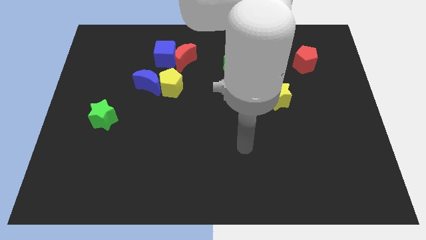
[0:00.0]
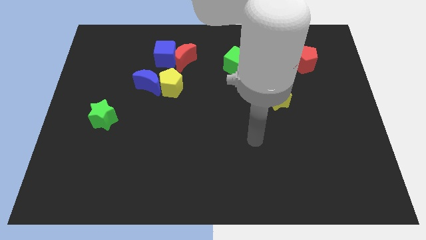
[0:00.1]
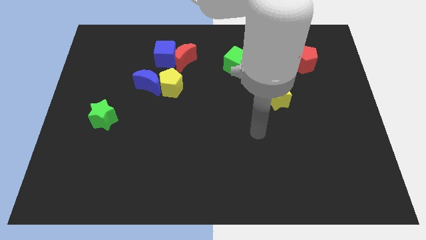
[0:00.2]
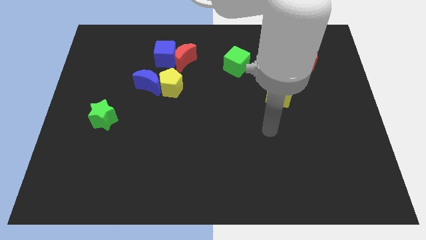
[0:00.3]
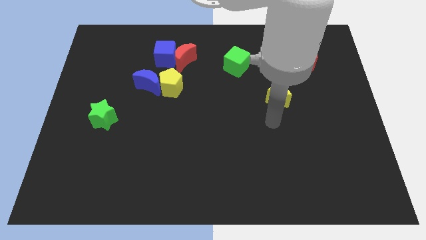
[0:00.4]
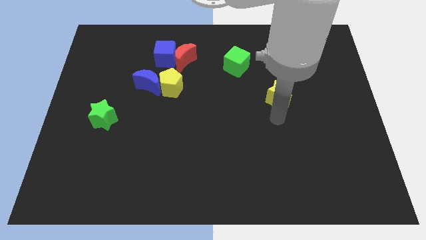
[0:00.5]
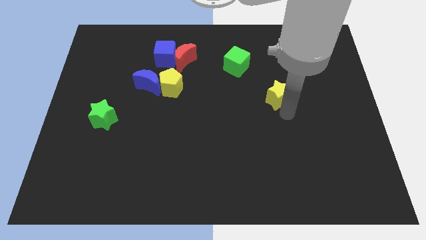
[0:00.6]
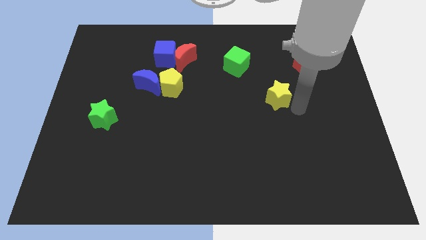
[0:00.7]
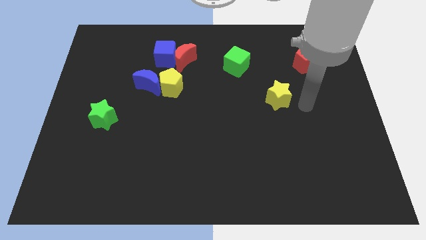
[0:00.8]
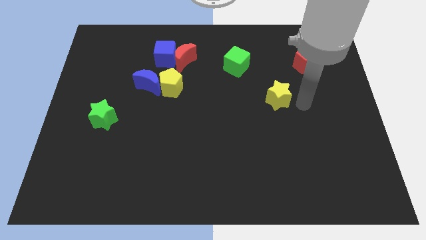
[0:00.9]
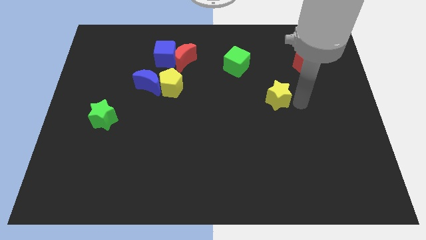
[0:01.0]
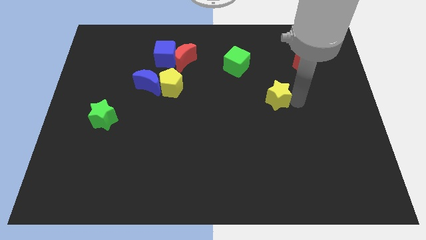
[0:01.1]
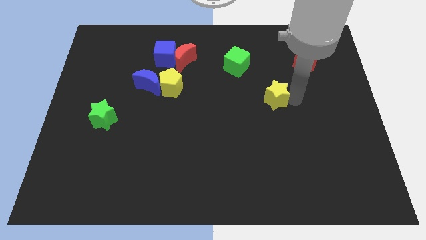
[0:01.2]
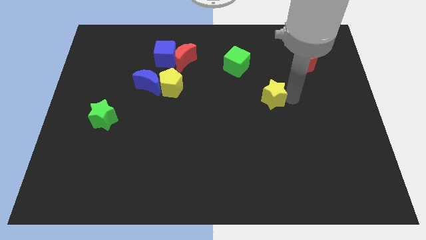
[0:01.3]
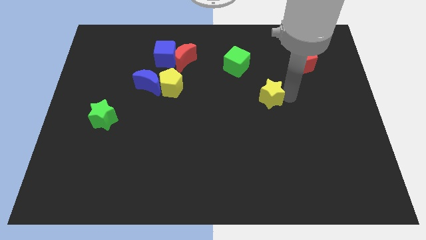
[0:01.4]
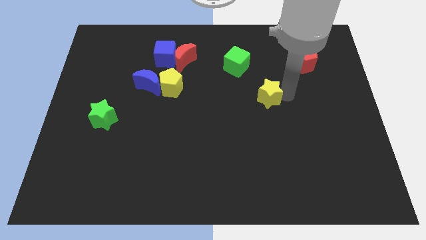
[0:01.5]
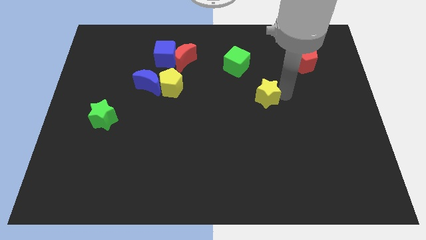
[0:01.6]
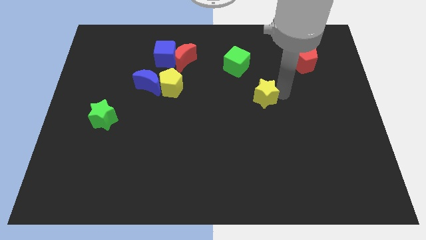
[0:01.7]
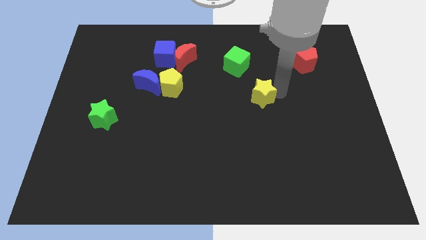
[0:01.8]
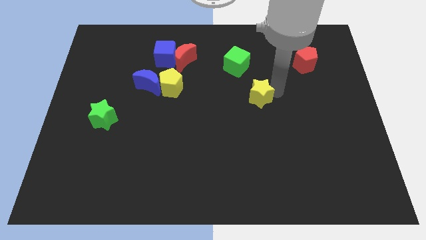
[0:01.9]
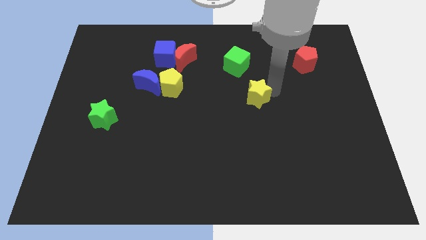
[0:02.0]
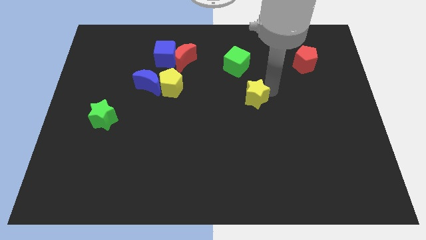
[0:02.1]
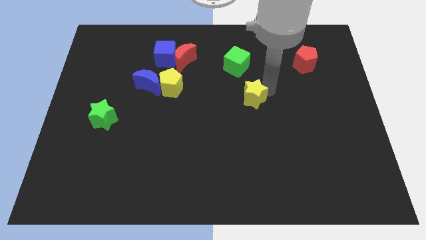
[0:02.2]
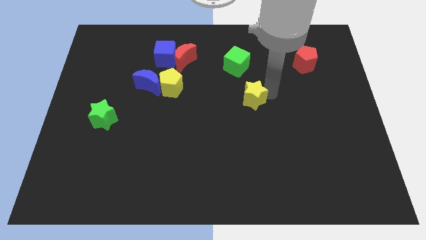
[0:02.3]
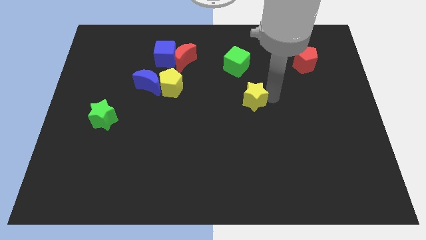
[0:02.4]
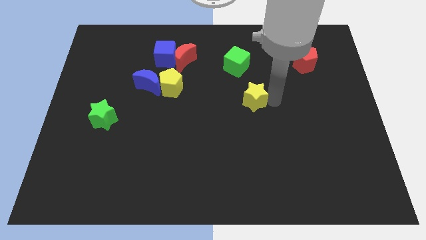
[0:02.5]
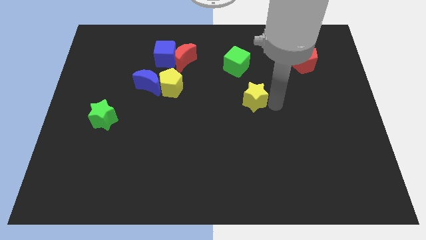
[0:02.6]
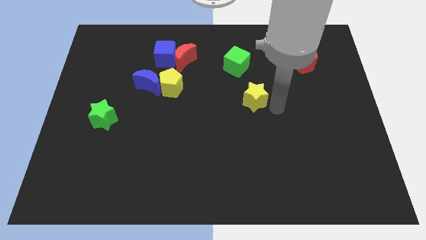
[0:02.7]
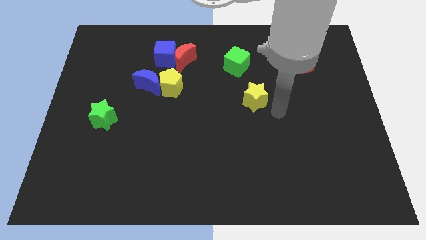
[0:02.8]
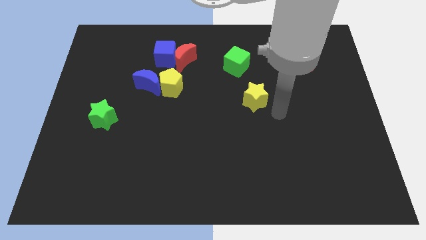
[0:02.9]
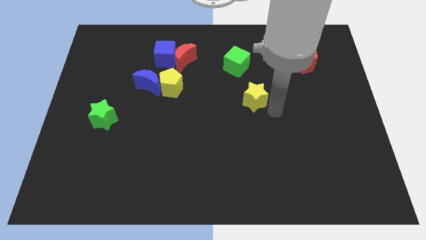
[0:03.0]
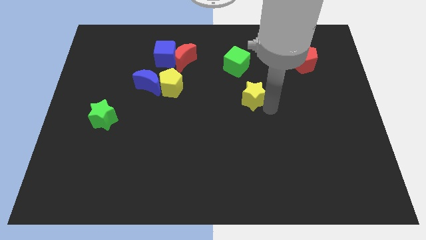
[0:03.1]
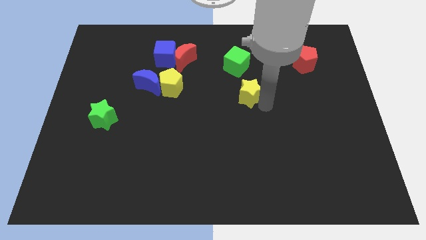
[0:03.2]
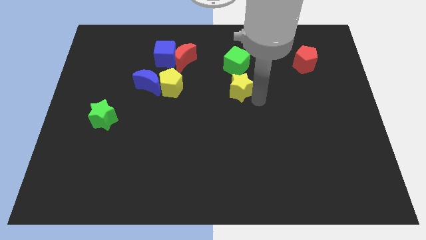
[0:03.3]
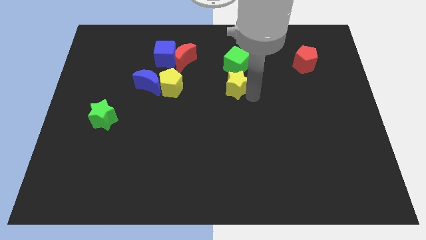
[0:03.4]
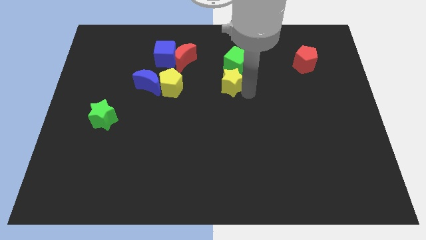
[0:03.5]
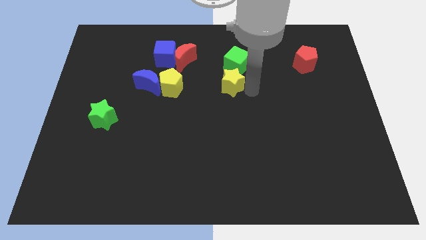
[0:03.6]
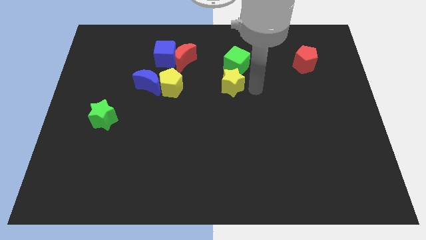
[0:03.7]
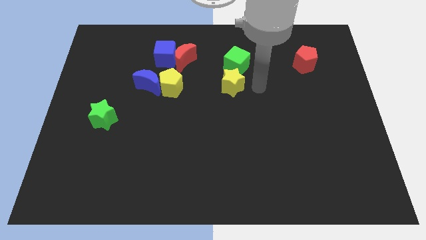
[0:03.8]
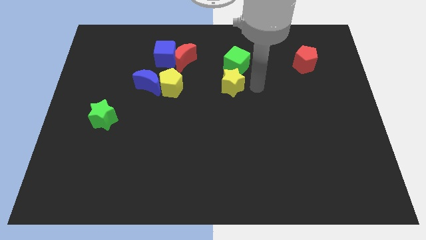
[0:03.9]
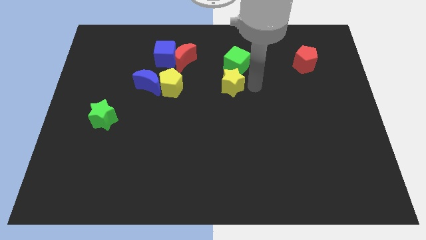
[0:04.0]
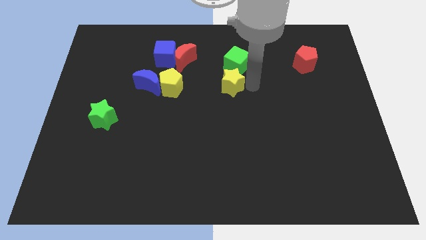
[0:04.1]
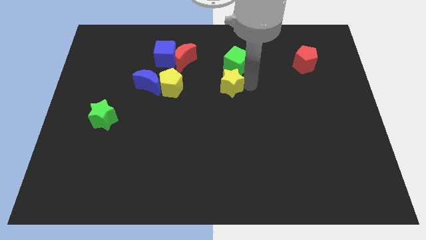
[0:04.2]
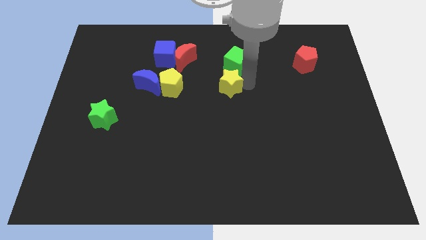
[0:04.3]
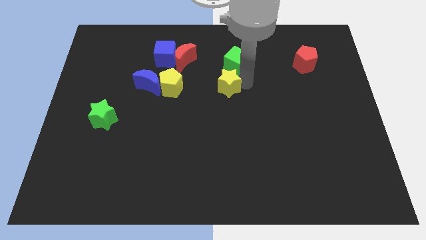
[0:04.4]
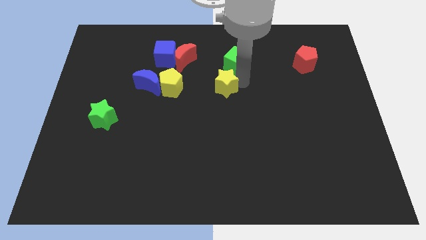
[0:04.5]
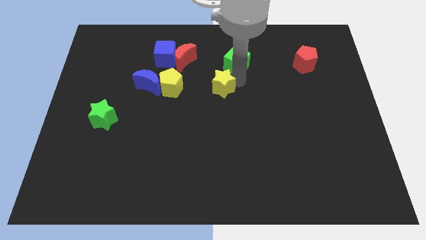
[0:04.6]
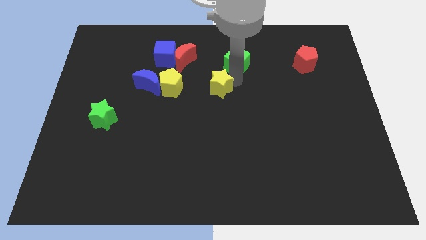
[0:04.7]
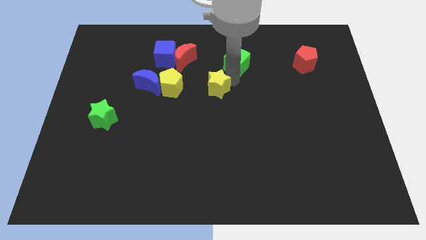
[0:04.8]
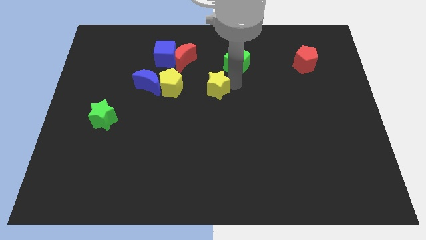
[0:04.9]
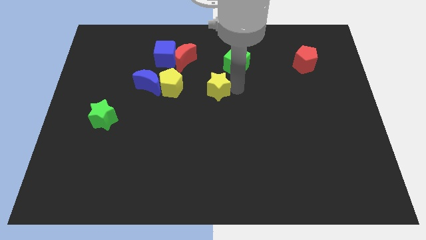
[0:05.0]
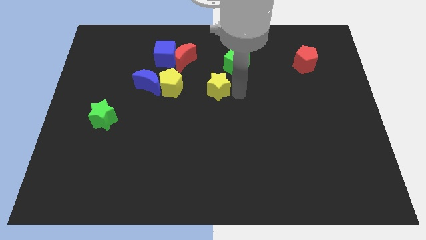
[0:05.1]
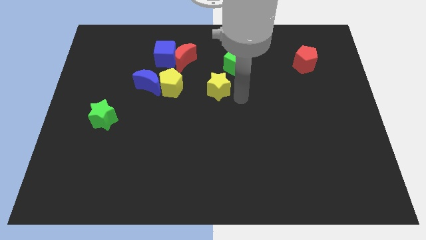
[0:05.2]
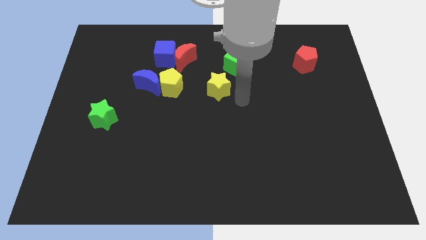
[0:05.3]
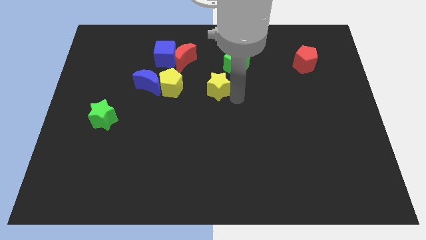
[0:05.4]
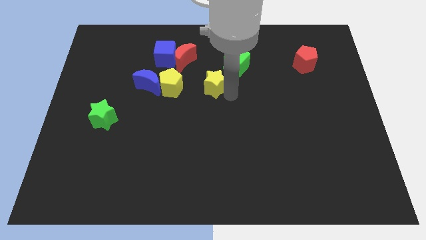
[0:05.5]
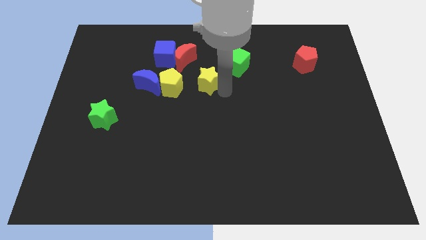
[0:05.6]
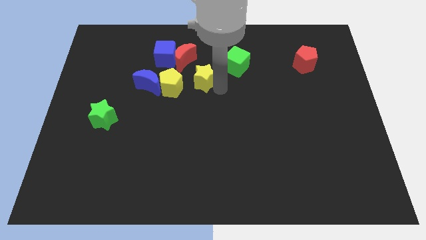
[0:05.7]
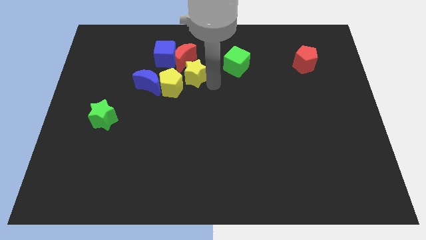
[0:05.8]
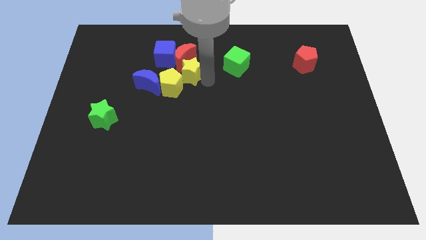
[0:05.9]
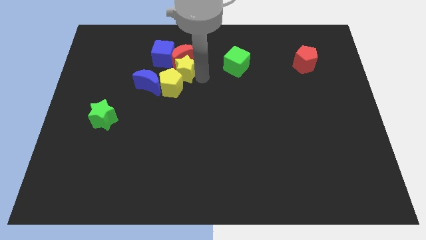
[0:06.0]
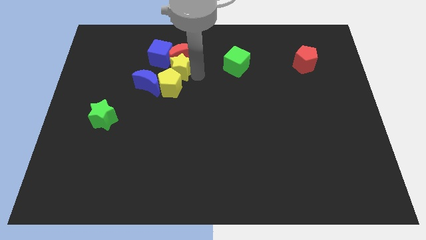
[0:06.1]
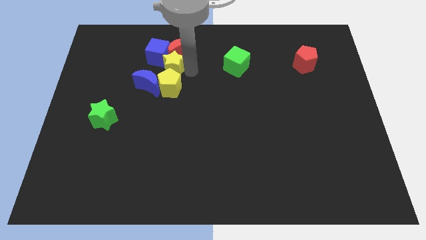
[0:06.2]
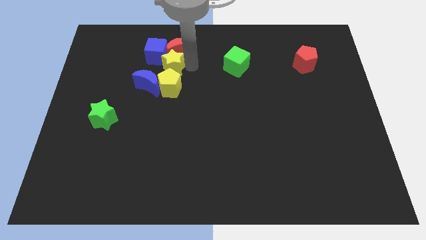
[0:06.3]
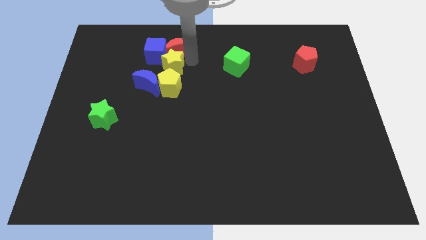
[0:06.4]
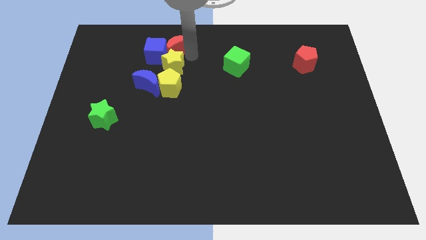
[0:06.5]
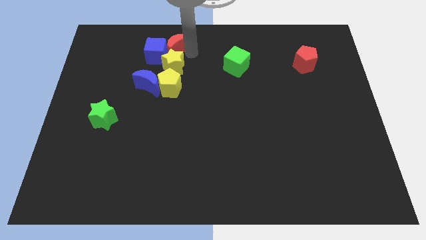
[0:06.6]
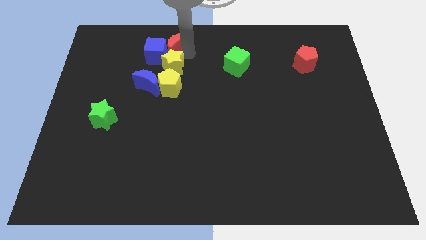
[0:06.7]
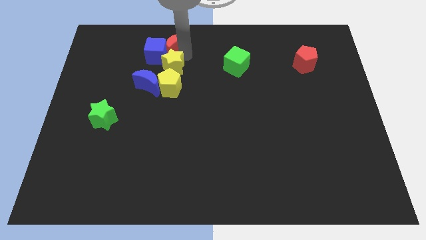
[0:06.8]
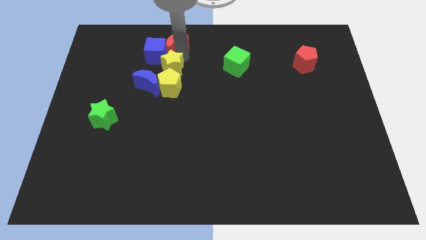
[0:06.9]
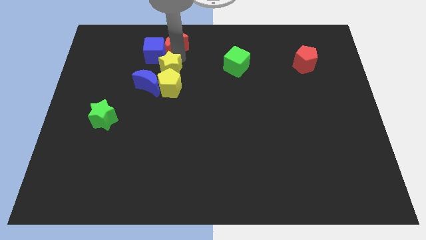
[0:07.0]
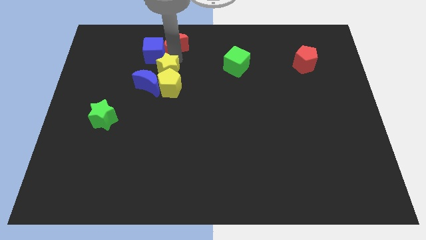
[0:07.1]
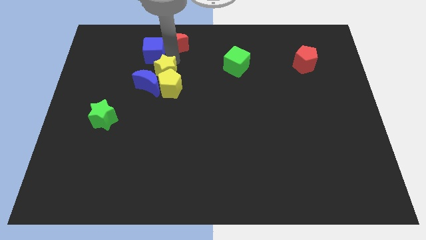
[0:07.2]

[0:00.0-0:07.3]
put the yellow star close to the blue moon
